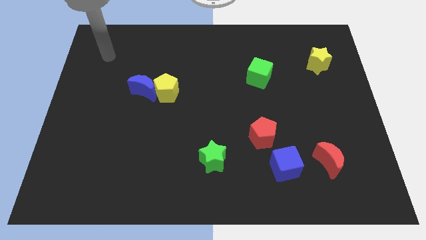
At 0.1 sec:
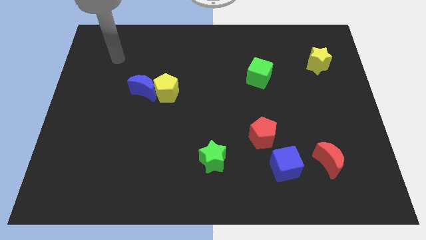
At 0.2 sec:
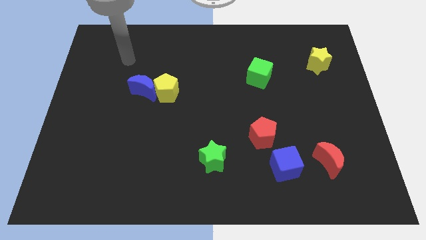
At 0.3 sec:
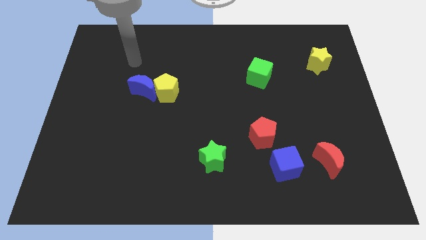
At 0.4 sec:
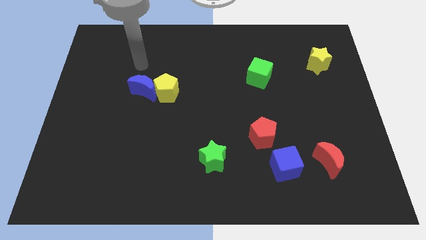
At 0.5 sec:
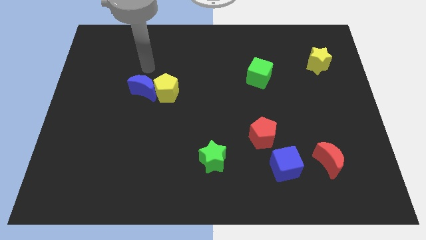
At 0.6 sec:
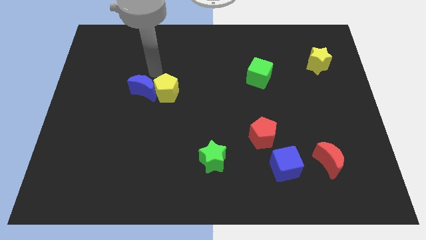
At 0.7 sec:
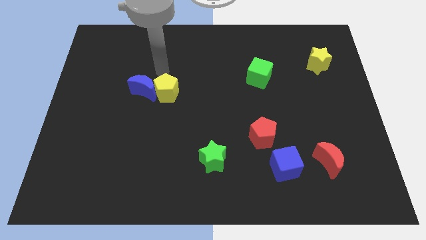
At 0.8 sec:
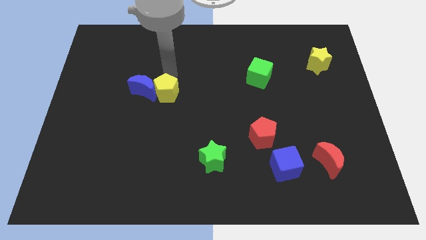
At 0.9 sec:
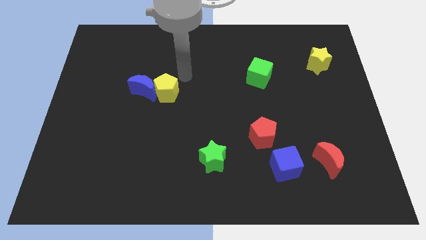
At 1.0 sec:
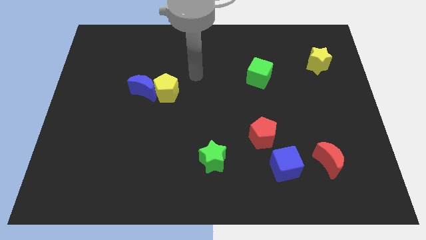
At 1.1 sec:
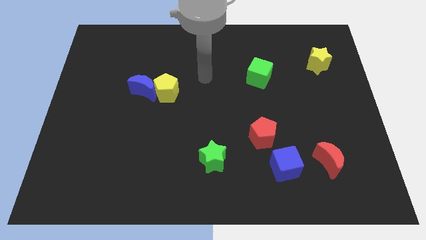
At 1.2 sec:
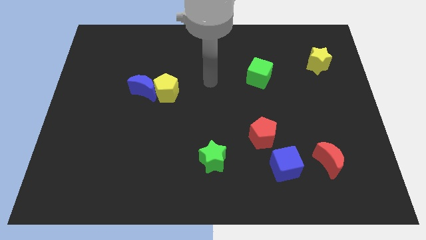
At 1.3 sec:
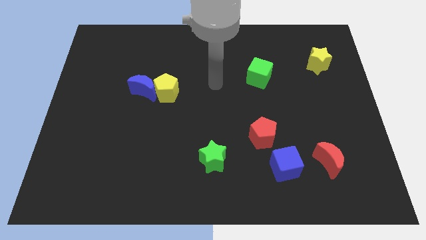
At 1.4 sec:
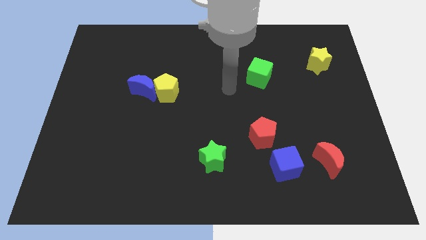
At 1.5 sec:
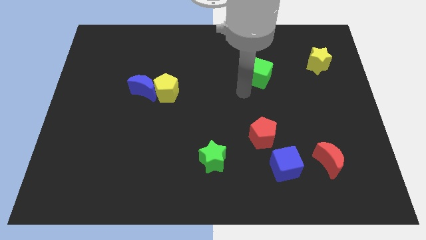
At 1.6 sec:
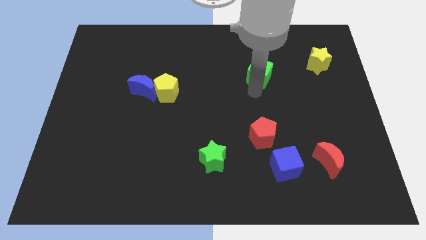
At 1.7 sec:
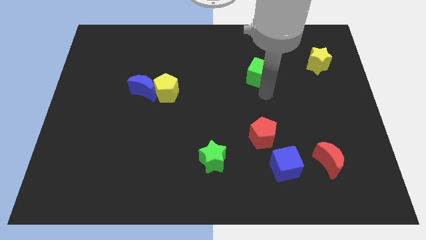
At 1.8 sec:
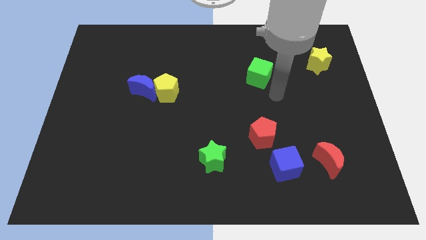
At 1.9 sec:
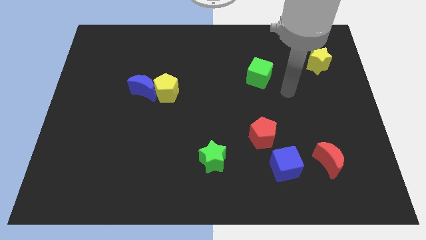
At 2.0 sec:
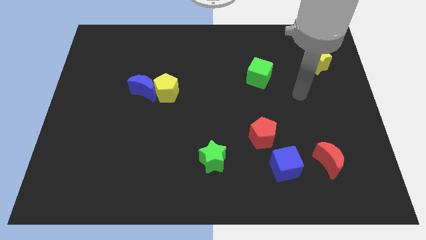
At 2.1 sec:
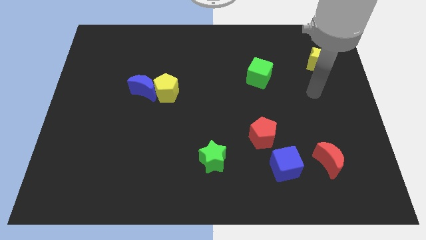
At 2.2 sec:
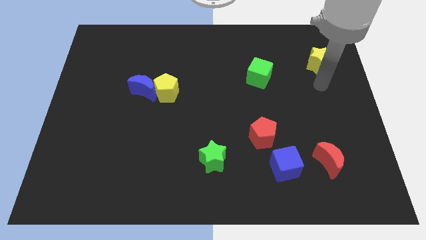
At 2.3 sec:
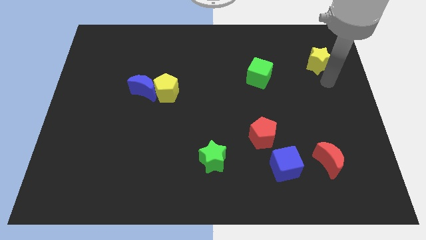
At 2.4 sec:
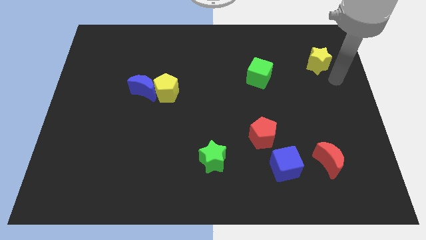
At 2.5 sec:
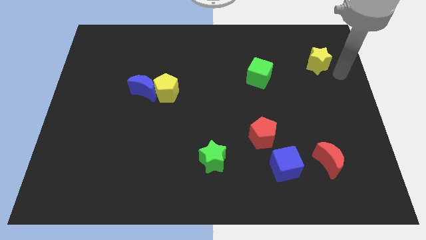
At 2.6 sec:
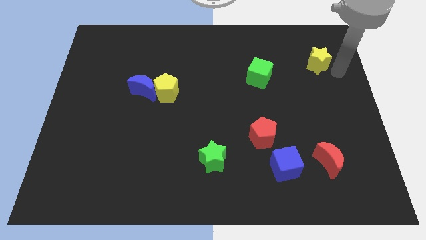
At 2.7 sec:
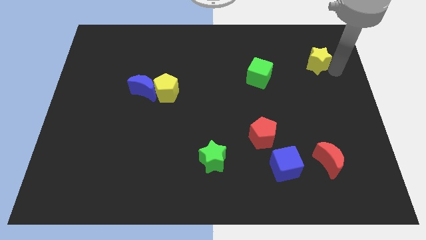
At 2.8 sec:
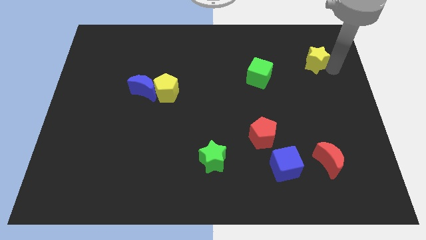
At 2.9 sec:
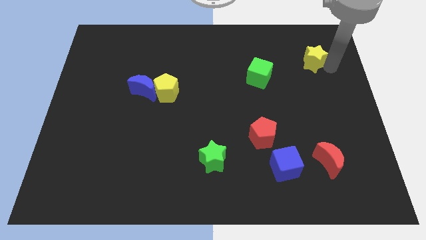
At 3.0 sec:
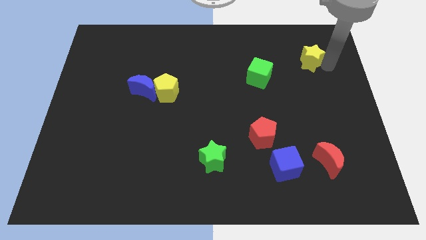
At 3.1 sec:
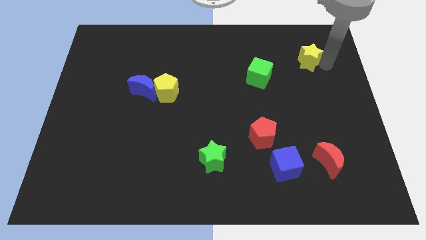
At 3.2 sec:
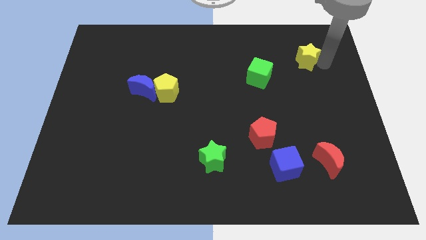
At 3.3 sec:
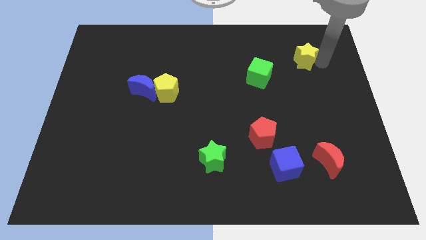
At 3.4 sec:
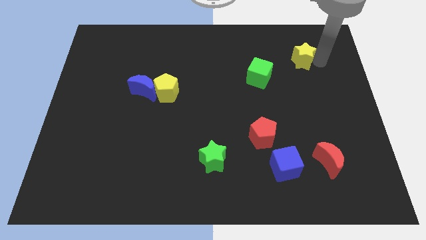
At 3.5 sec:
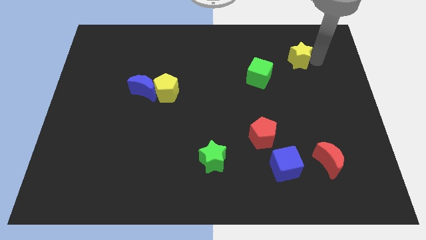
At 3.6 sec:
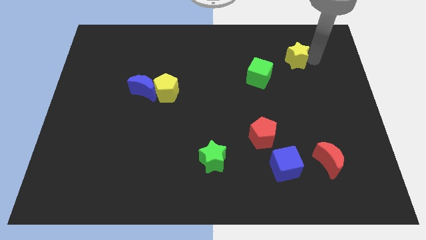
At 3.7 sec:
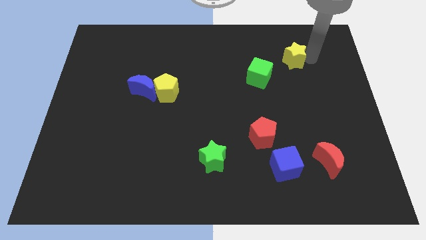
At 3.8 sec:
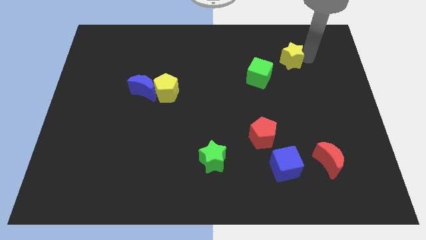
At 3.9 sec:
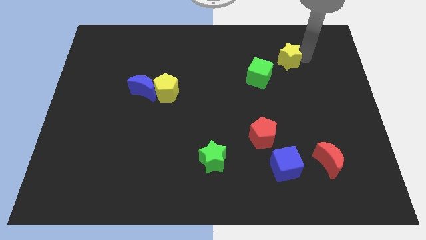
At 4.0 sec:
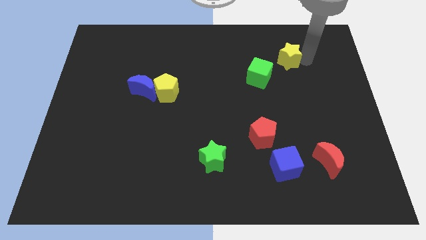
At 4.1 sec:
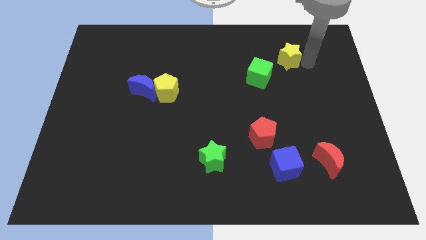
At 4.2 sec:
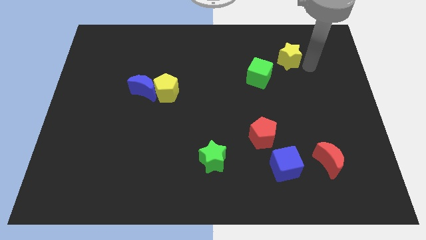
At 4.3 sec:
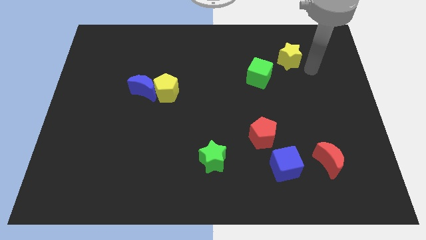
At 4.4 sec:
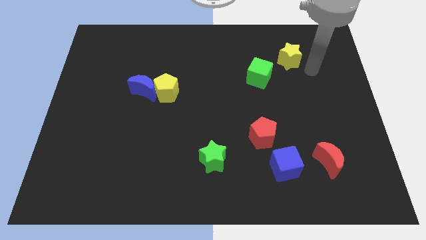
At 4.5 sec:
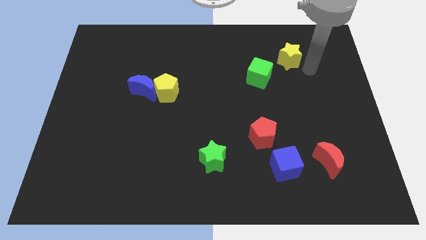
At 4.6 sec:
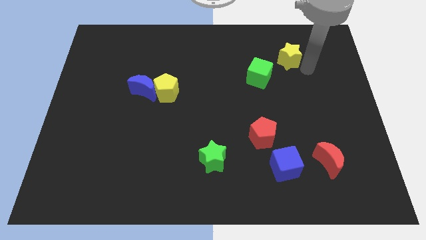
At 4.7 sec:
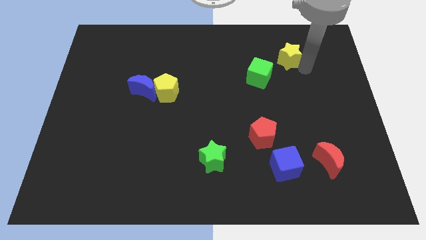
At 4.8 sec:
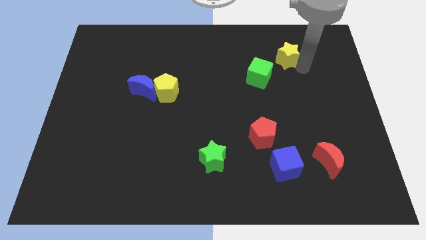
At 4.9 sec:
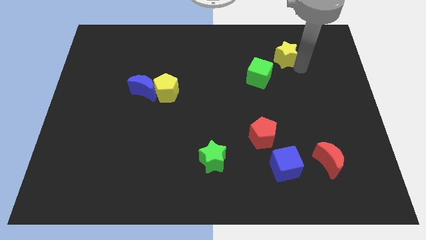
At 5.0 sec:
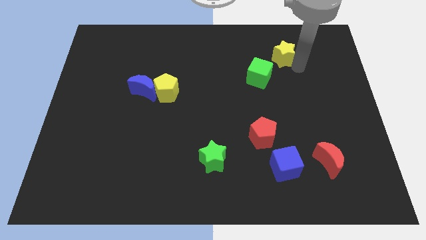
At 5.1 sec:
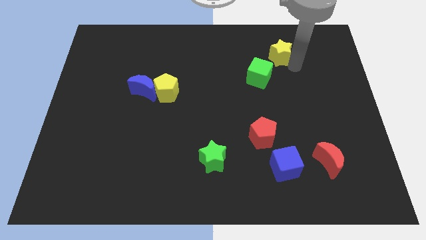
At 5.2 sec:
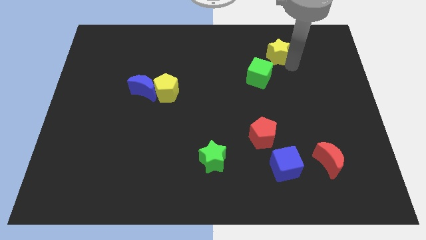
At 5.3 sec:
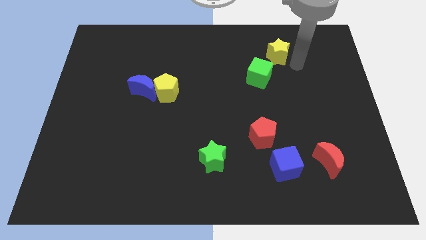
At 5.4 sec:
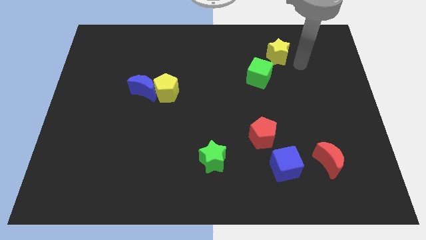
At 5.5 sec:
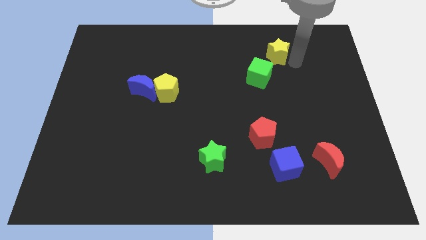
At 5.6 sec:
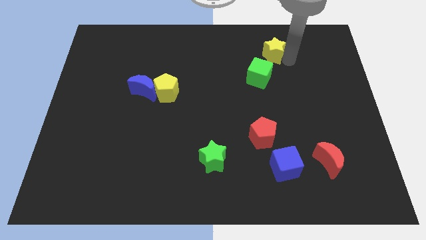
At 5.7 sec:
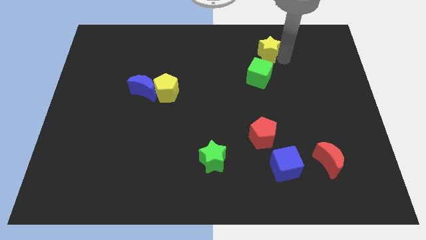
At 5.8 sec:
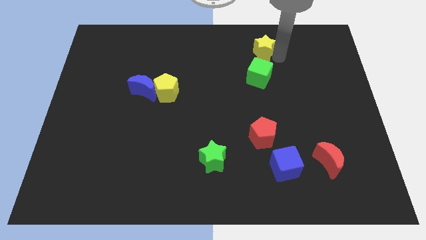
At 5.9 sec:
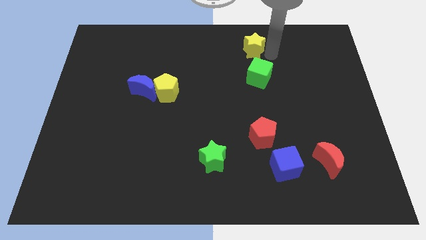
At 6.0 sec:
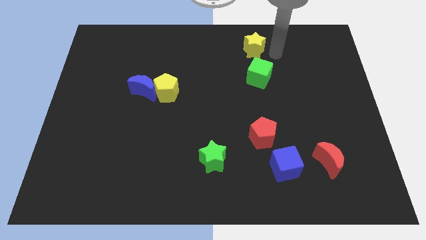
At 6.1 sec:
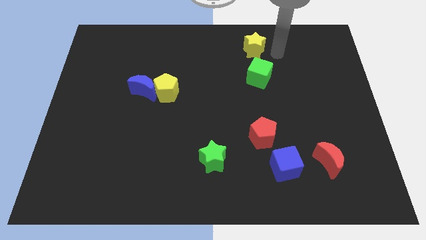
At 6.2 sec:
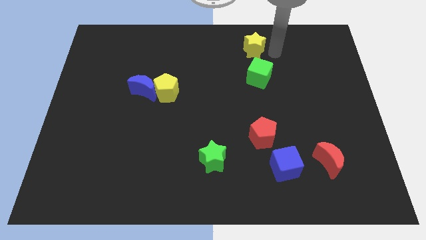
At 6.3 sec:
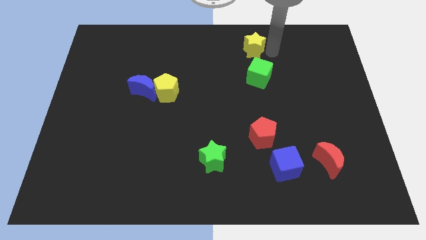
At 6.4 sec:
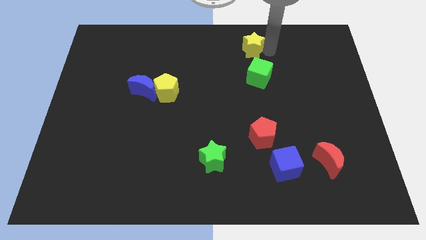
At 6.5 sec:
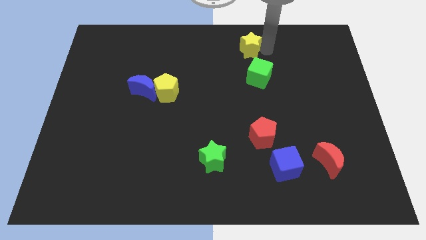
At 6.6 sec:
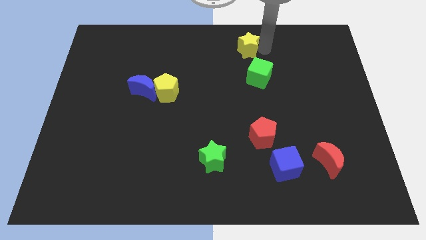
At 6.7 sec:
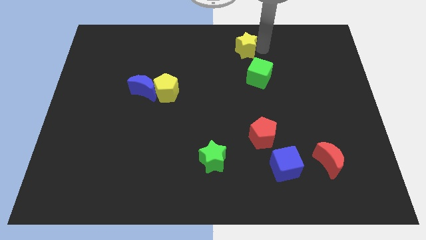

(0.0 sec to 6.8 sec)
slide the yellow star to the top side

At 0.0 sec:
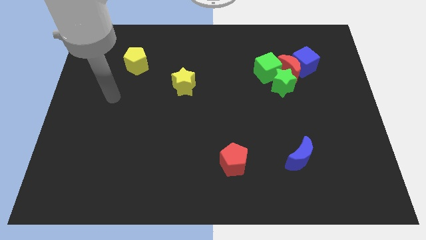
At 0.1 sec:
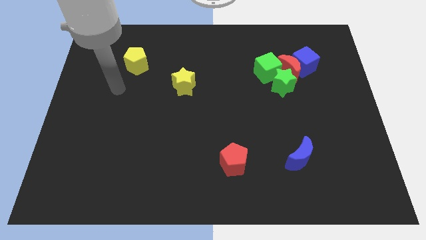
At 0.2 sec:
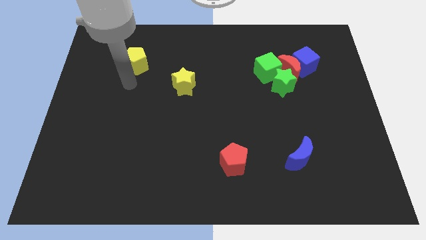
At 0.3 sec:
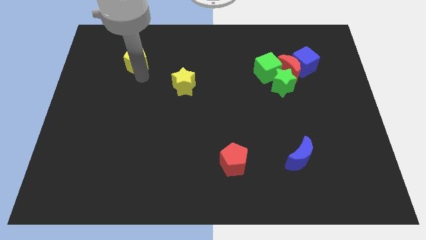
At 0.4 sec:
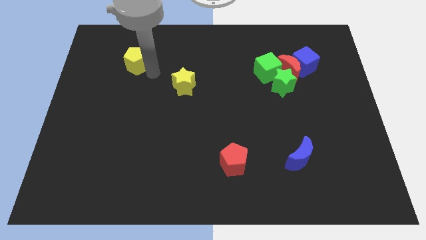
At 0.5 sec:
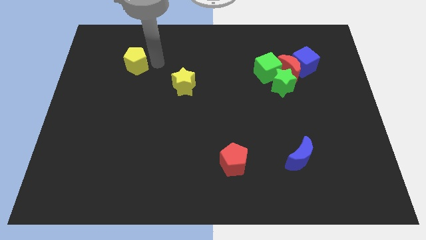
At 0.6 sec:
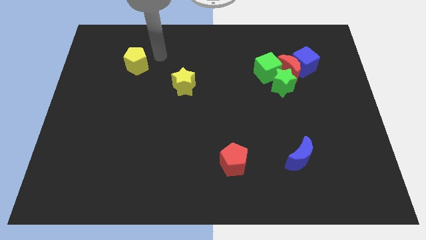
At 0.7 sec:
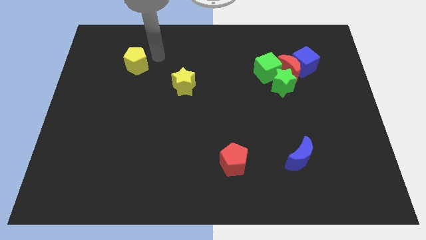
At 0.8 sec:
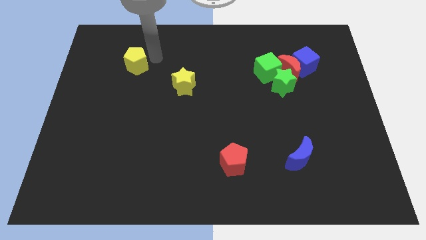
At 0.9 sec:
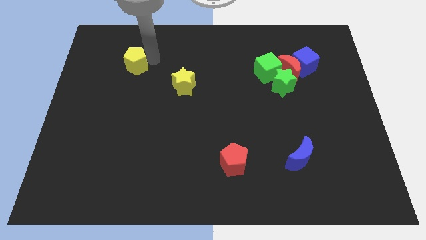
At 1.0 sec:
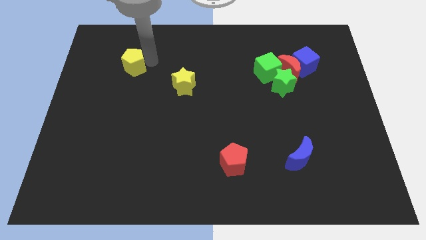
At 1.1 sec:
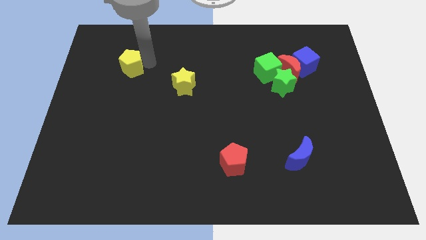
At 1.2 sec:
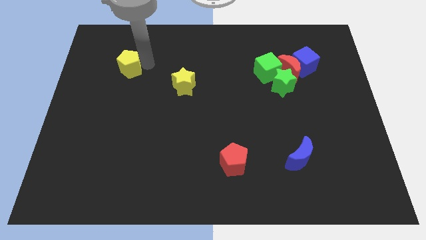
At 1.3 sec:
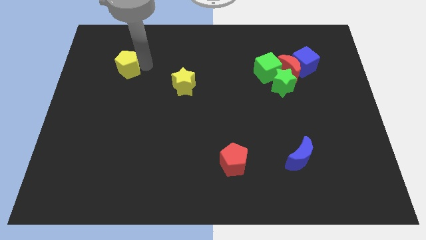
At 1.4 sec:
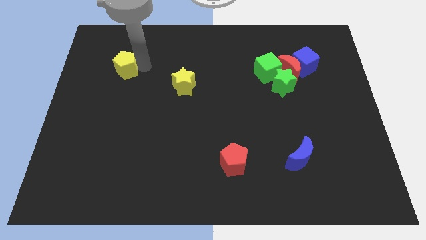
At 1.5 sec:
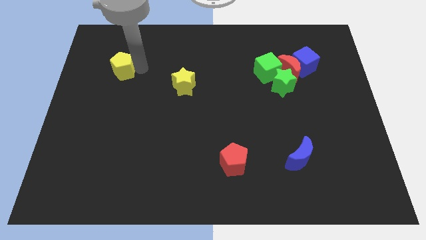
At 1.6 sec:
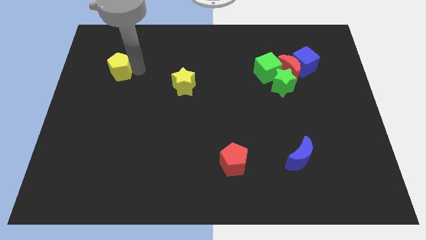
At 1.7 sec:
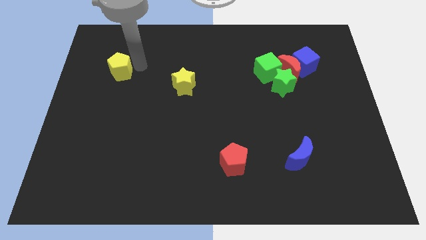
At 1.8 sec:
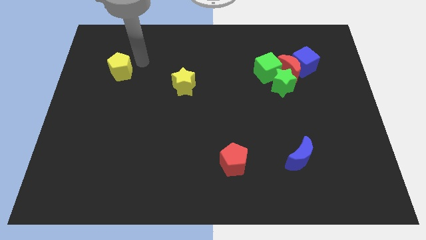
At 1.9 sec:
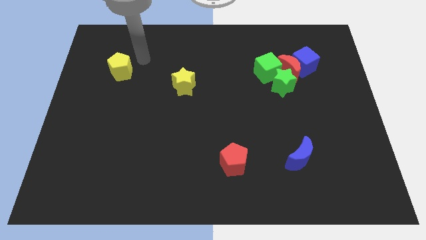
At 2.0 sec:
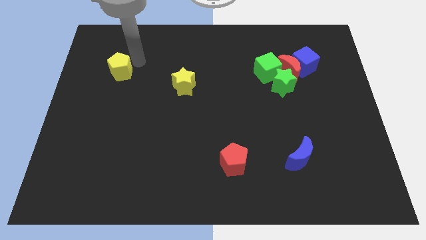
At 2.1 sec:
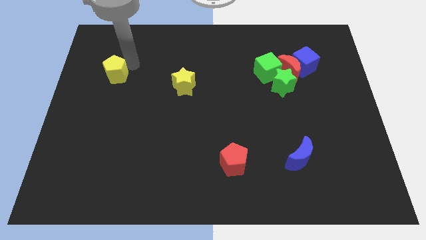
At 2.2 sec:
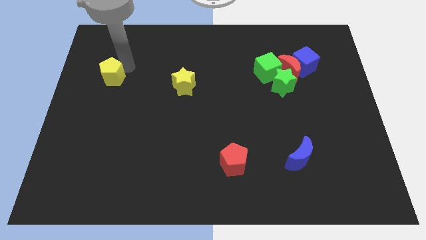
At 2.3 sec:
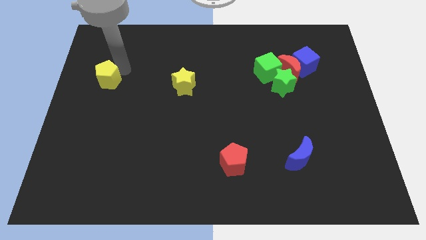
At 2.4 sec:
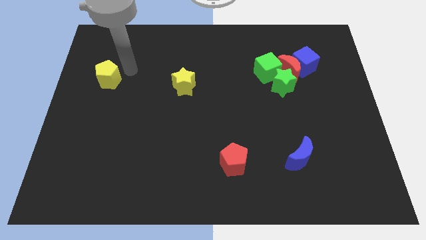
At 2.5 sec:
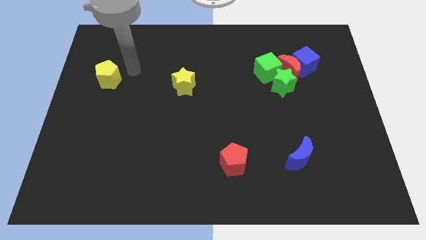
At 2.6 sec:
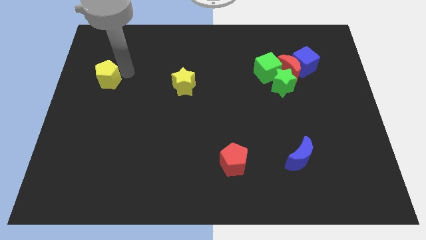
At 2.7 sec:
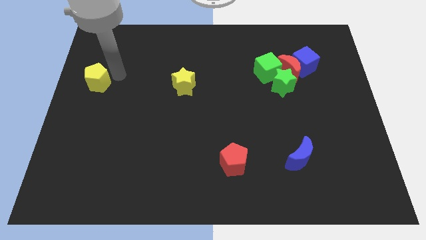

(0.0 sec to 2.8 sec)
move the yellow pentagon to the left side
